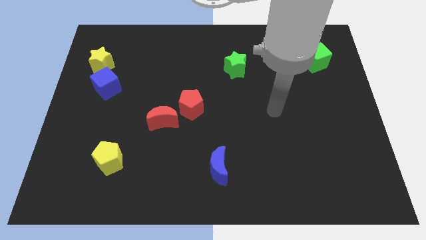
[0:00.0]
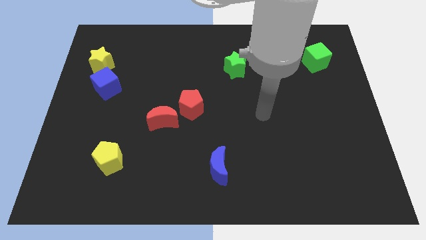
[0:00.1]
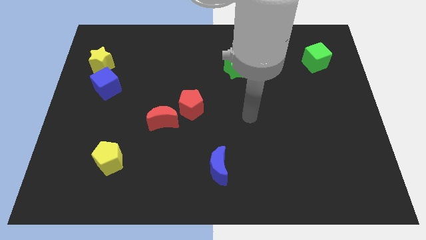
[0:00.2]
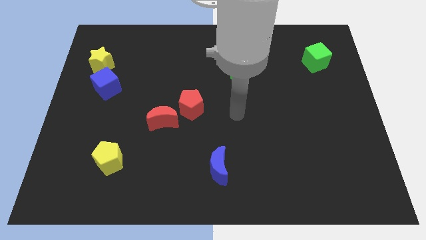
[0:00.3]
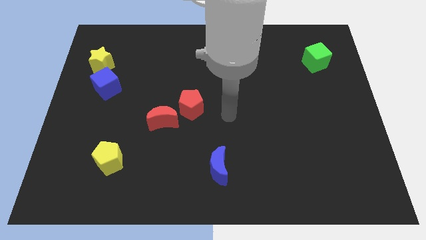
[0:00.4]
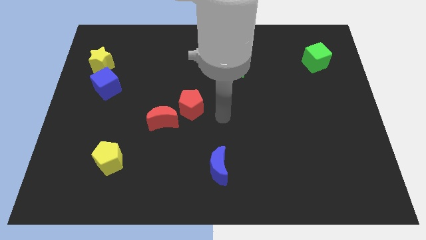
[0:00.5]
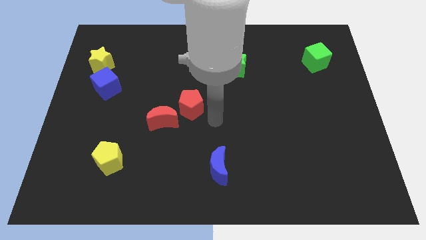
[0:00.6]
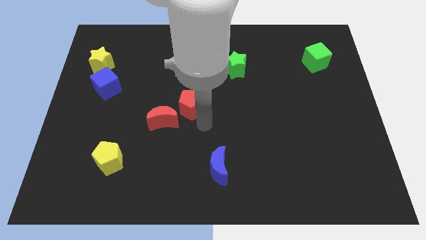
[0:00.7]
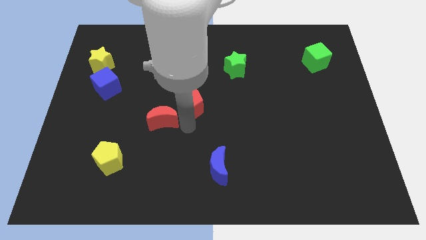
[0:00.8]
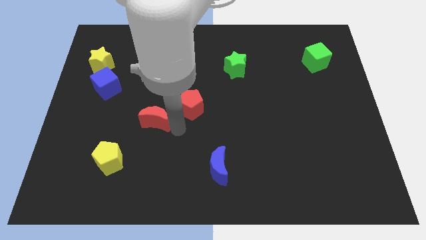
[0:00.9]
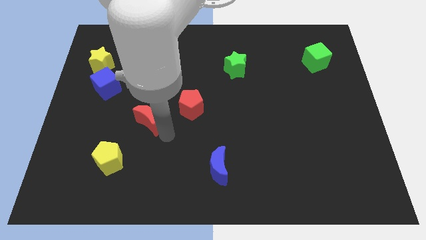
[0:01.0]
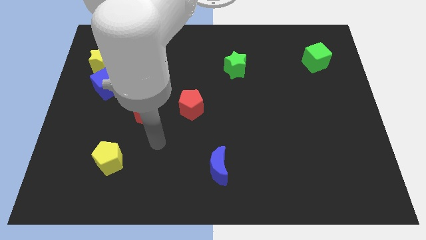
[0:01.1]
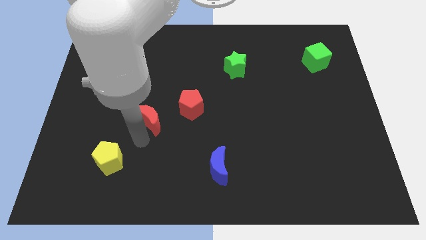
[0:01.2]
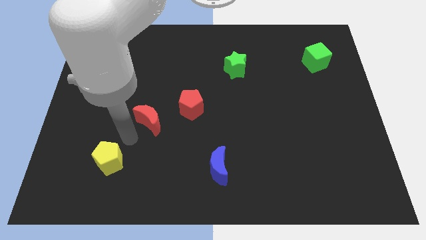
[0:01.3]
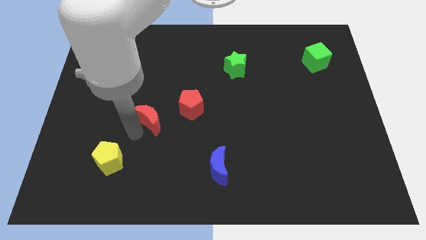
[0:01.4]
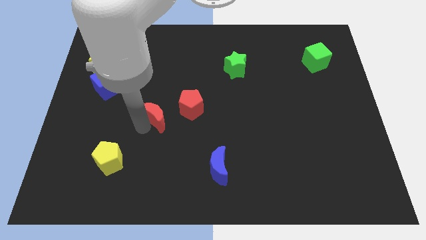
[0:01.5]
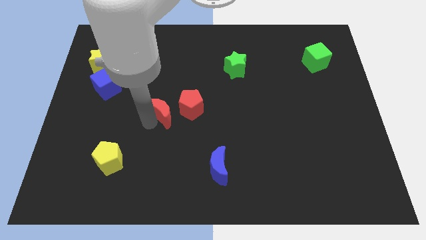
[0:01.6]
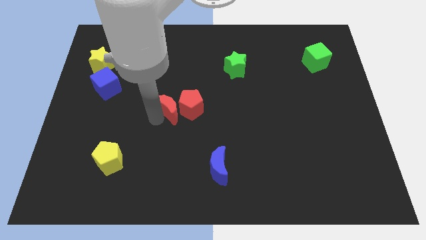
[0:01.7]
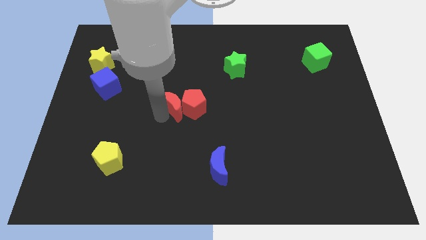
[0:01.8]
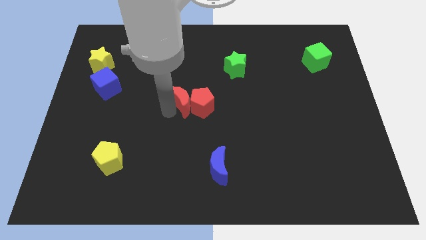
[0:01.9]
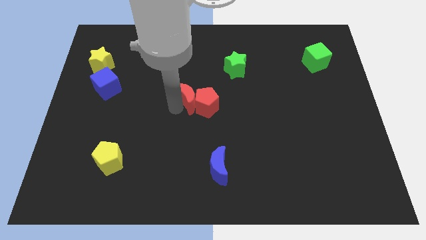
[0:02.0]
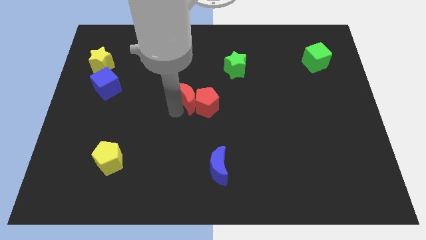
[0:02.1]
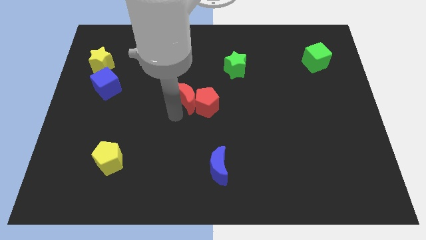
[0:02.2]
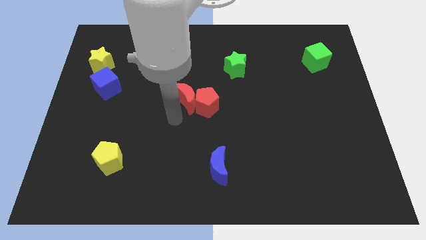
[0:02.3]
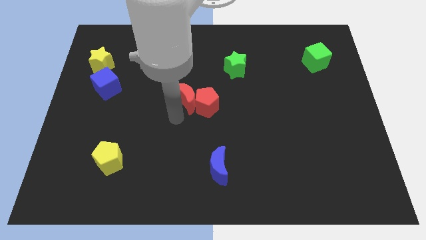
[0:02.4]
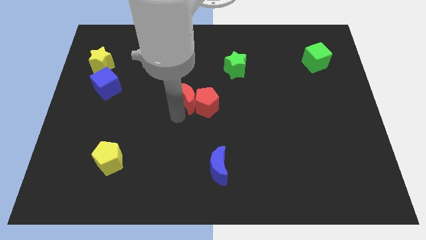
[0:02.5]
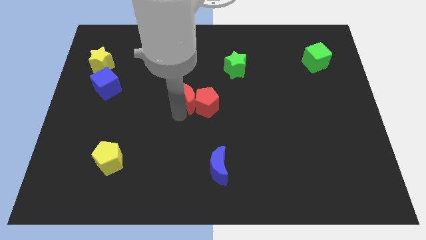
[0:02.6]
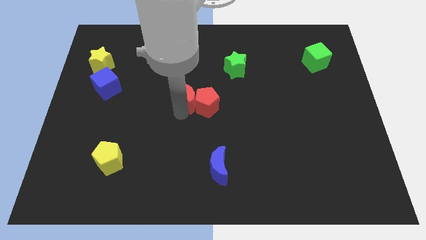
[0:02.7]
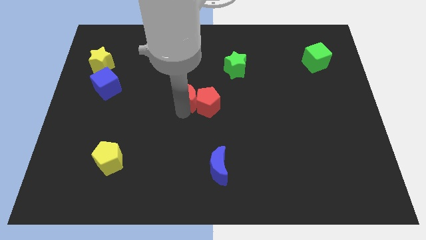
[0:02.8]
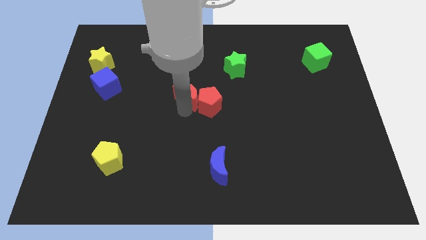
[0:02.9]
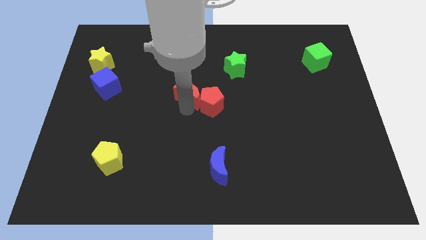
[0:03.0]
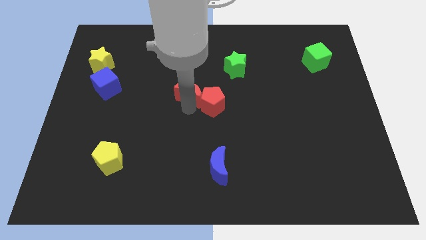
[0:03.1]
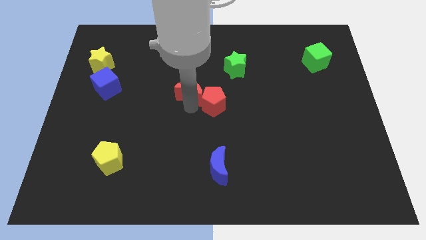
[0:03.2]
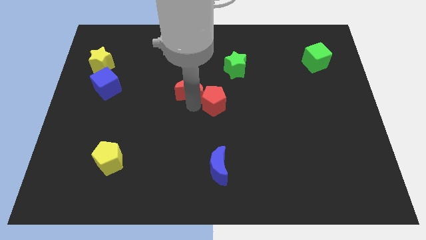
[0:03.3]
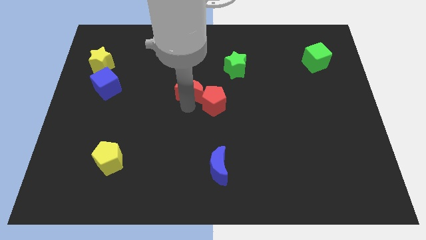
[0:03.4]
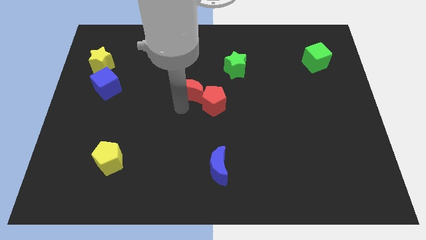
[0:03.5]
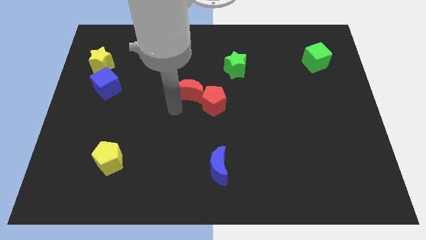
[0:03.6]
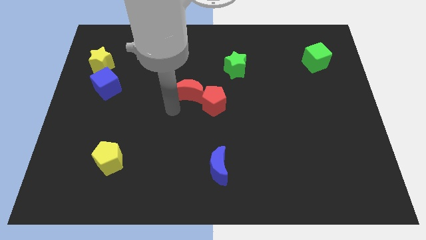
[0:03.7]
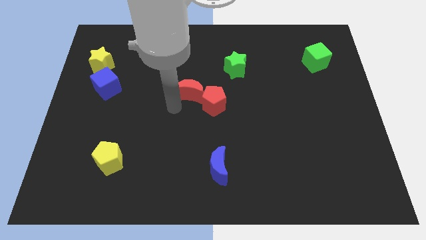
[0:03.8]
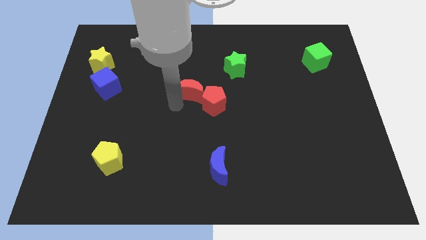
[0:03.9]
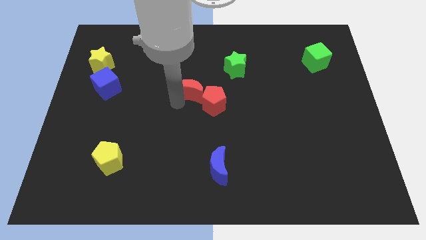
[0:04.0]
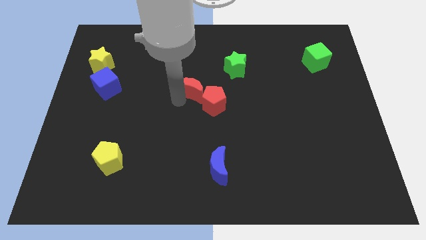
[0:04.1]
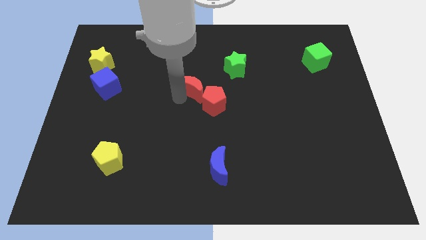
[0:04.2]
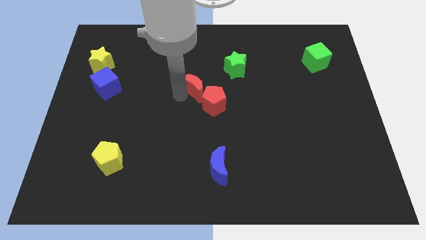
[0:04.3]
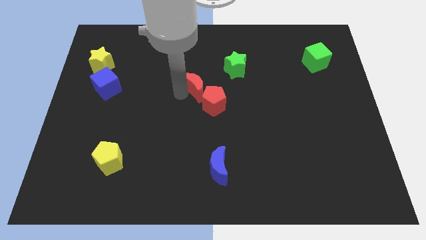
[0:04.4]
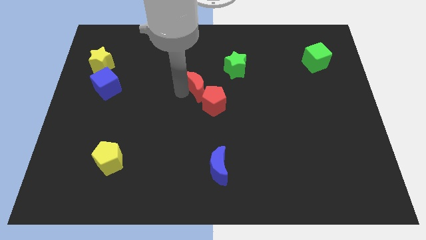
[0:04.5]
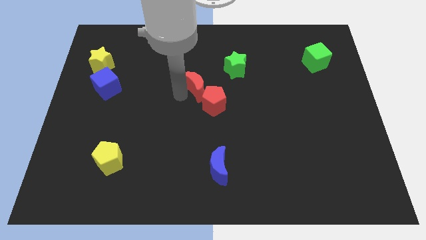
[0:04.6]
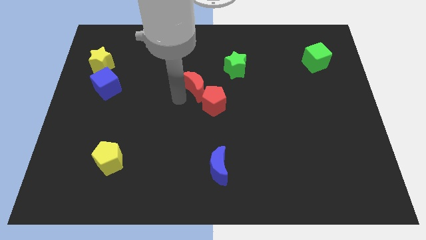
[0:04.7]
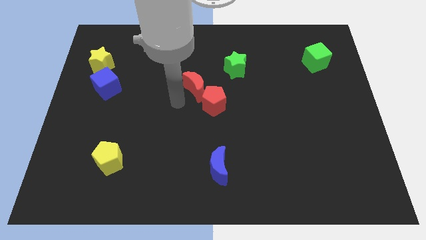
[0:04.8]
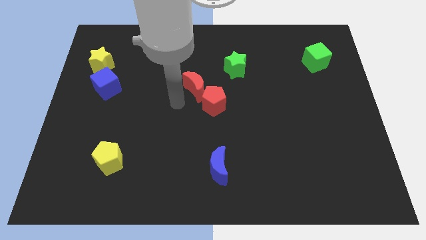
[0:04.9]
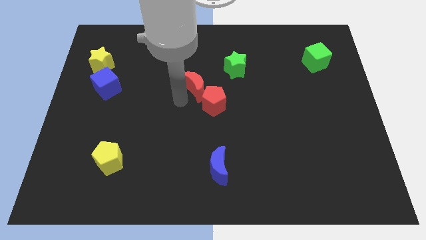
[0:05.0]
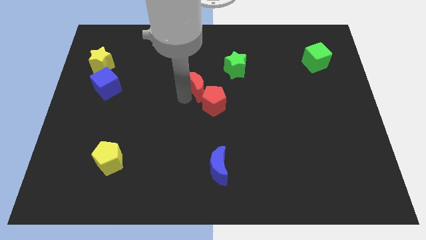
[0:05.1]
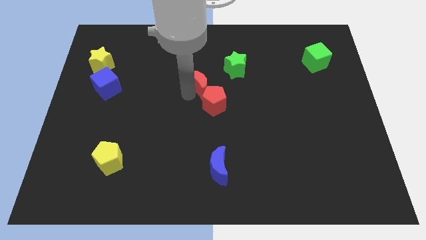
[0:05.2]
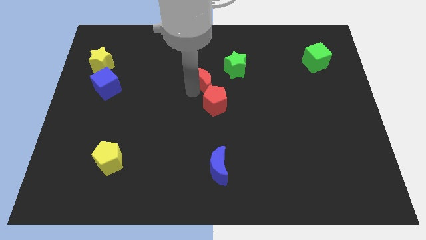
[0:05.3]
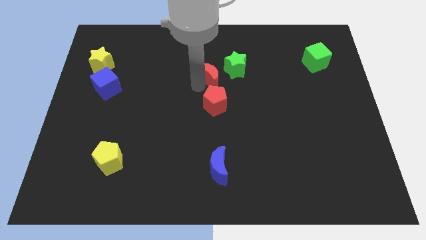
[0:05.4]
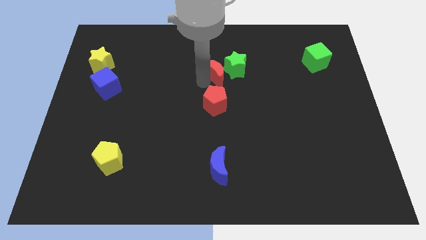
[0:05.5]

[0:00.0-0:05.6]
move the red moon next to the green star
